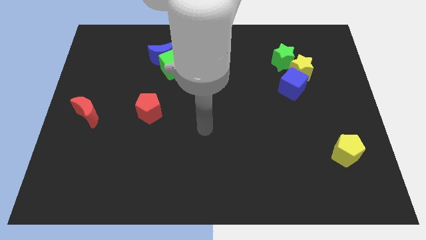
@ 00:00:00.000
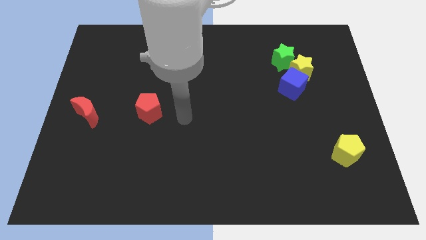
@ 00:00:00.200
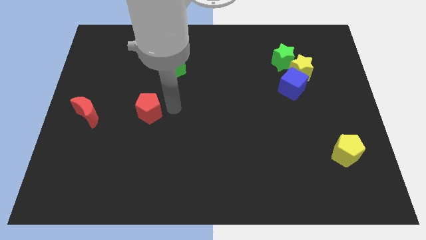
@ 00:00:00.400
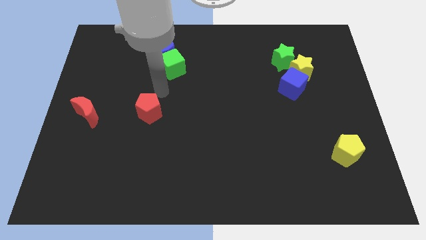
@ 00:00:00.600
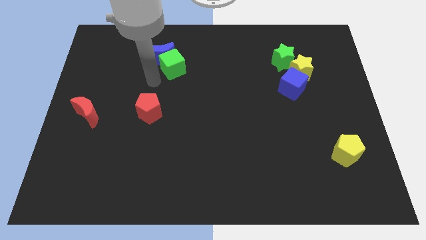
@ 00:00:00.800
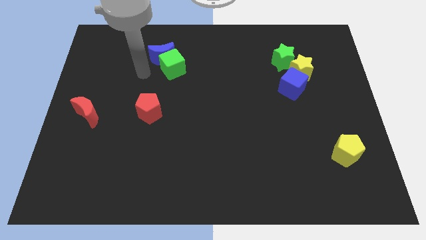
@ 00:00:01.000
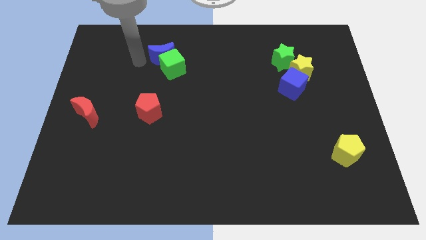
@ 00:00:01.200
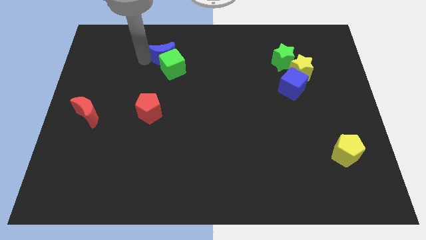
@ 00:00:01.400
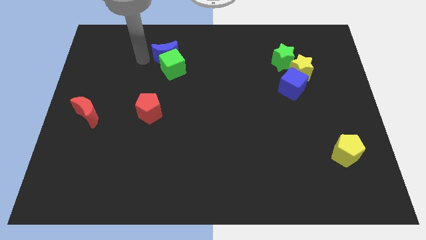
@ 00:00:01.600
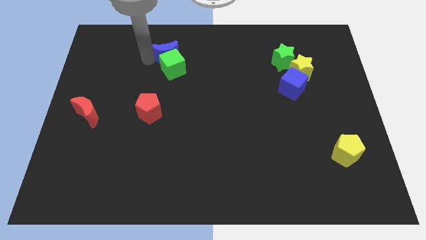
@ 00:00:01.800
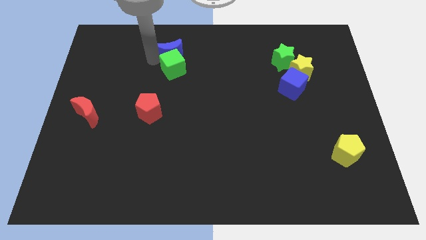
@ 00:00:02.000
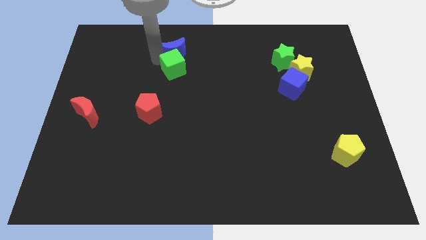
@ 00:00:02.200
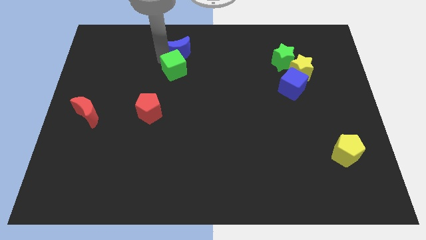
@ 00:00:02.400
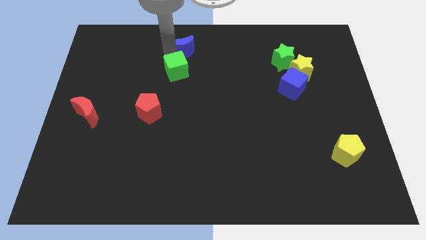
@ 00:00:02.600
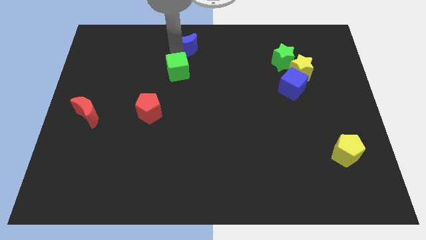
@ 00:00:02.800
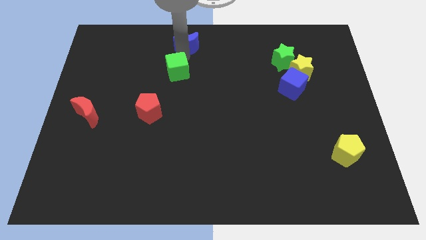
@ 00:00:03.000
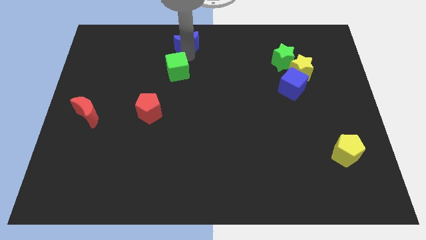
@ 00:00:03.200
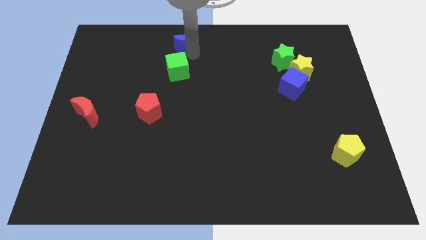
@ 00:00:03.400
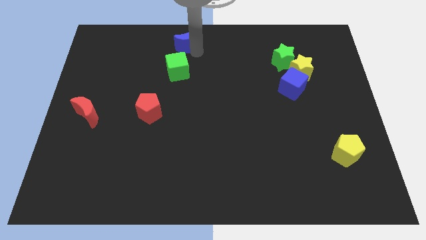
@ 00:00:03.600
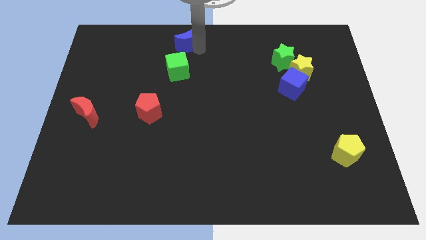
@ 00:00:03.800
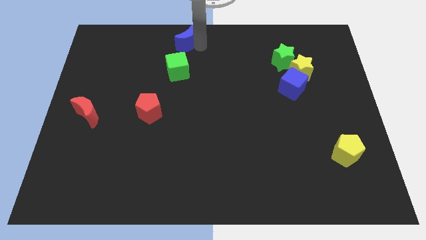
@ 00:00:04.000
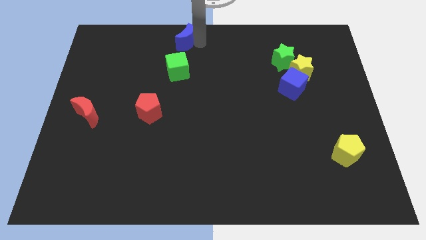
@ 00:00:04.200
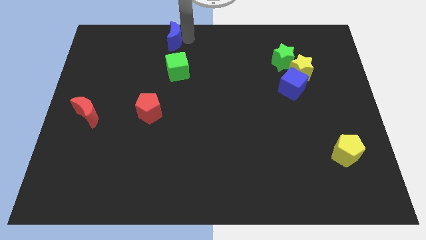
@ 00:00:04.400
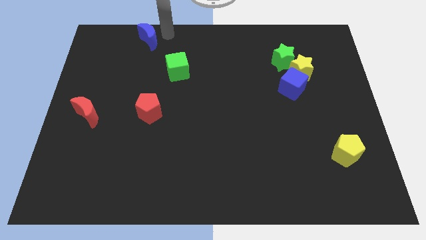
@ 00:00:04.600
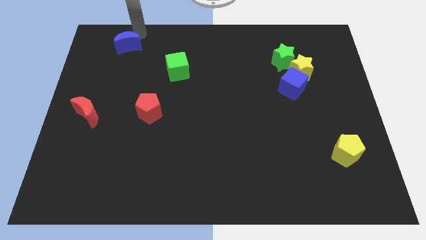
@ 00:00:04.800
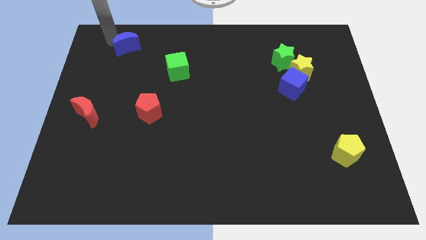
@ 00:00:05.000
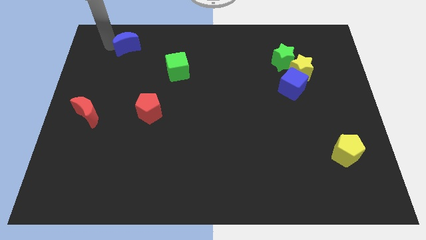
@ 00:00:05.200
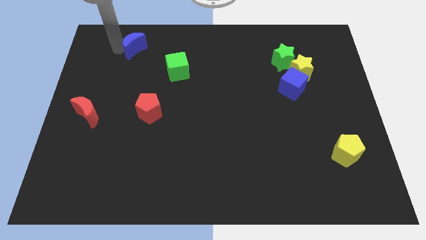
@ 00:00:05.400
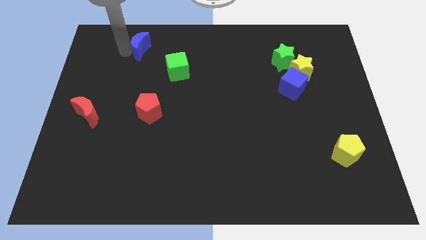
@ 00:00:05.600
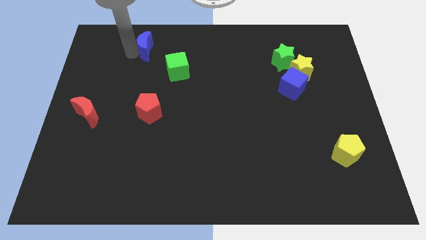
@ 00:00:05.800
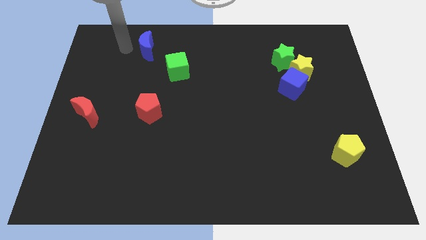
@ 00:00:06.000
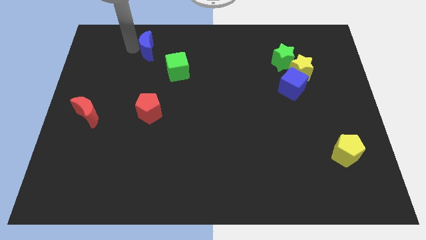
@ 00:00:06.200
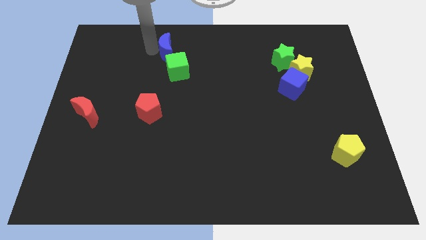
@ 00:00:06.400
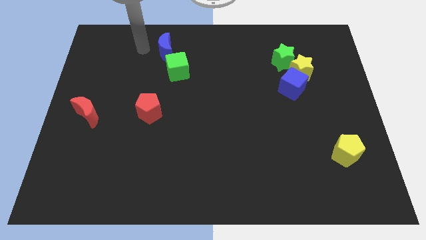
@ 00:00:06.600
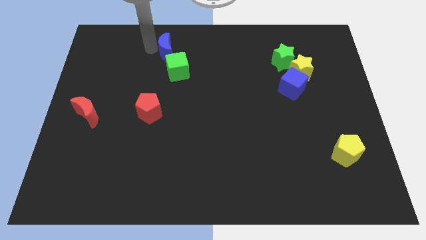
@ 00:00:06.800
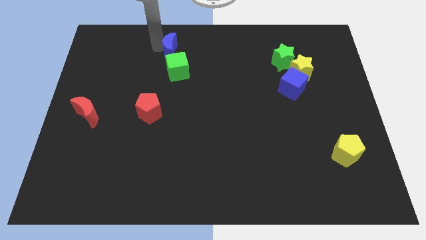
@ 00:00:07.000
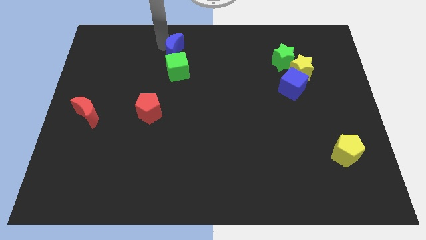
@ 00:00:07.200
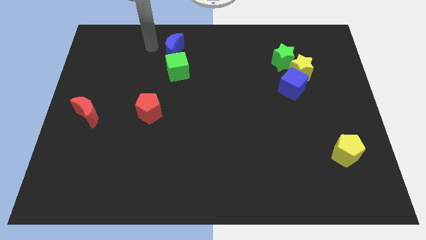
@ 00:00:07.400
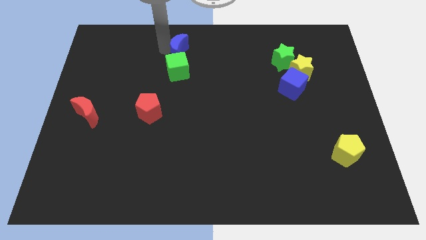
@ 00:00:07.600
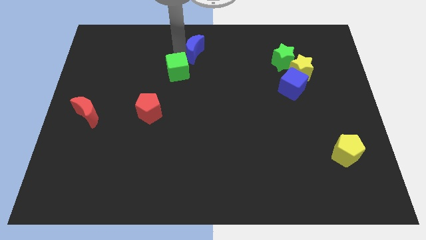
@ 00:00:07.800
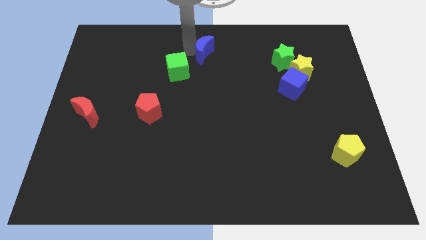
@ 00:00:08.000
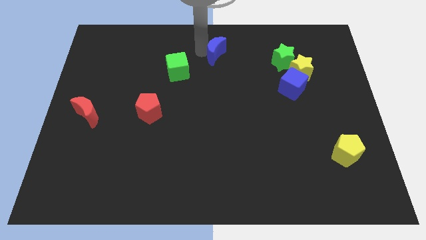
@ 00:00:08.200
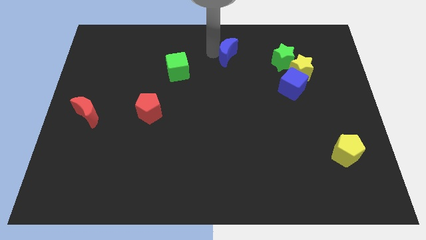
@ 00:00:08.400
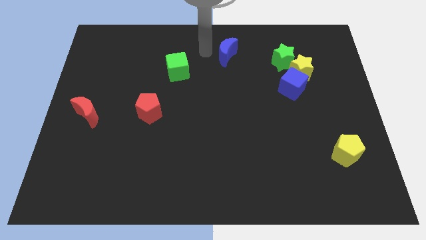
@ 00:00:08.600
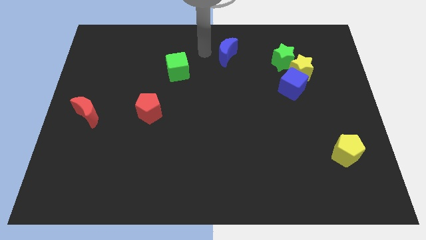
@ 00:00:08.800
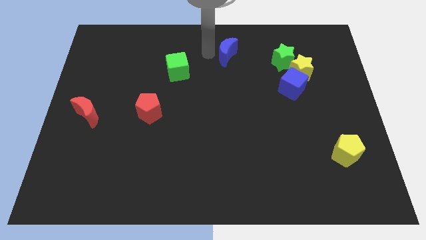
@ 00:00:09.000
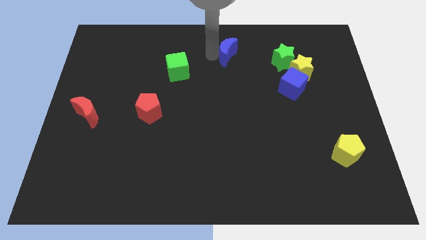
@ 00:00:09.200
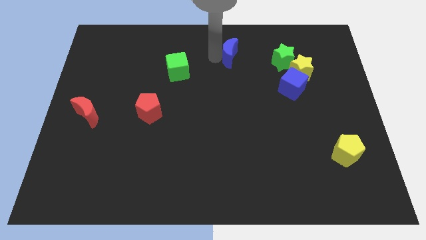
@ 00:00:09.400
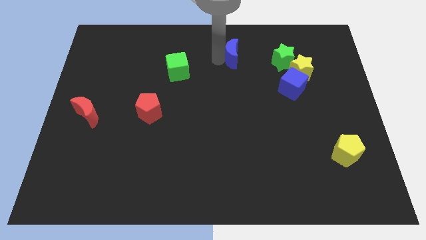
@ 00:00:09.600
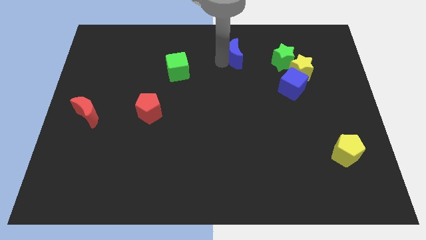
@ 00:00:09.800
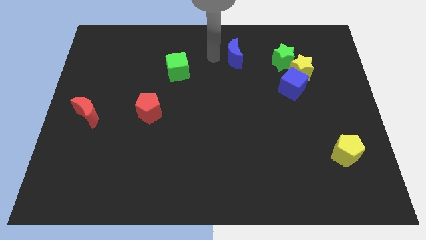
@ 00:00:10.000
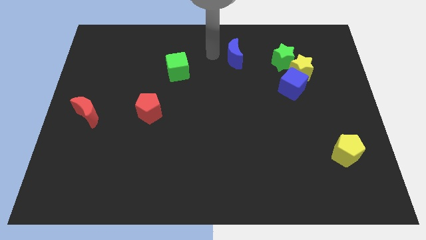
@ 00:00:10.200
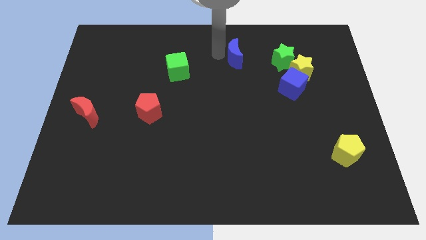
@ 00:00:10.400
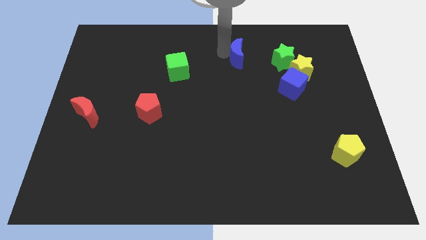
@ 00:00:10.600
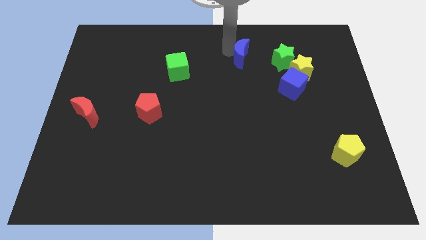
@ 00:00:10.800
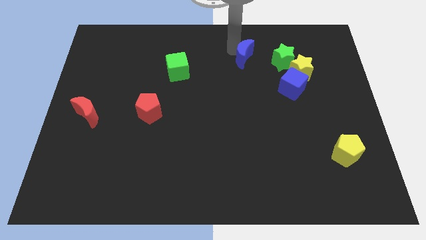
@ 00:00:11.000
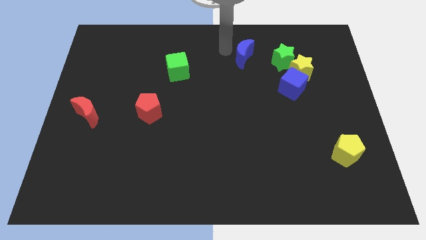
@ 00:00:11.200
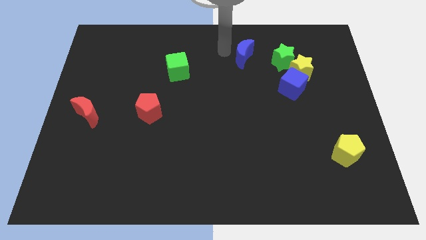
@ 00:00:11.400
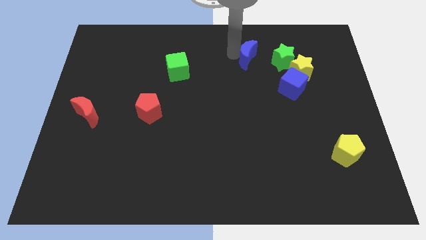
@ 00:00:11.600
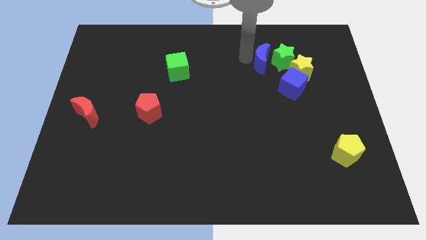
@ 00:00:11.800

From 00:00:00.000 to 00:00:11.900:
put the blue moon towards the green star

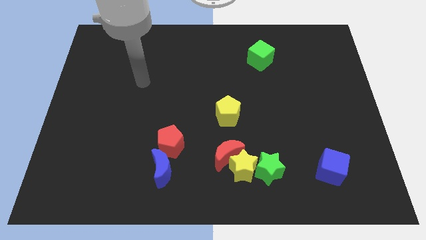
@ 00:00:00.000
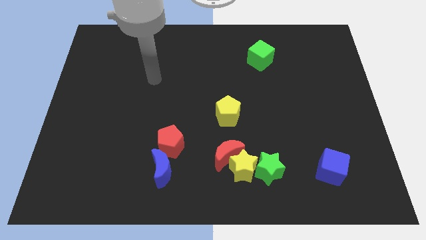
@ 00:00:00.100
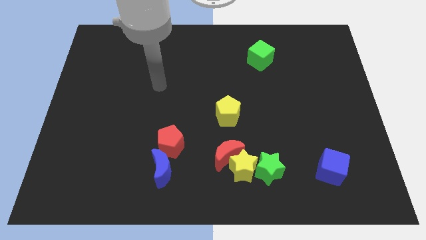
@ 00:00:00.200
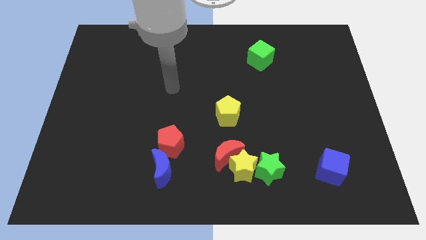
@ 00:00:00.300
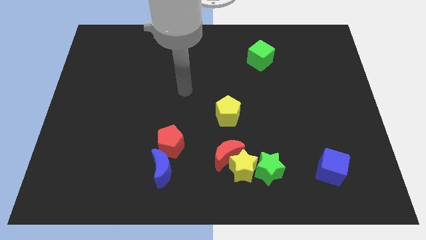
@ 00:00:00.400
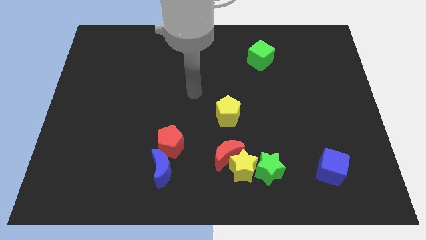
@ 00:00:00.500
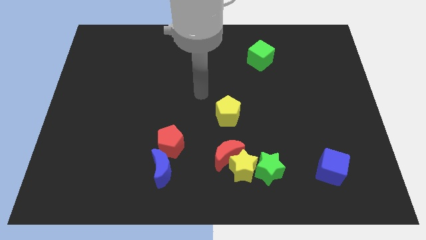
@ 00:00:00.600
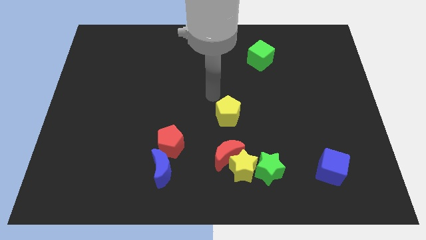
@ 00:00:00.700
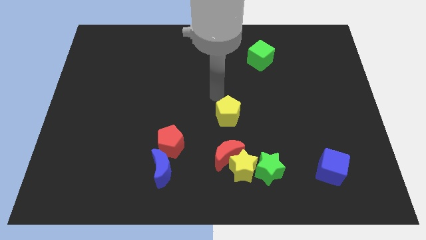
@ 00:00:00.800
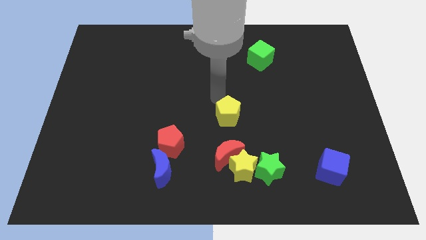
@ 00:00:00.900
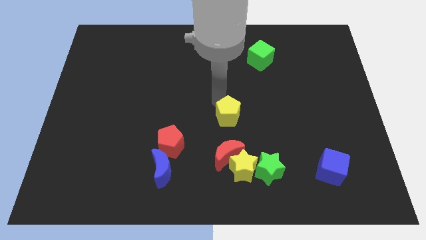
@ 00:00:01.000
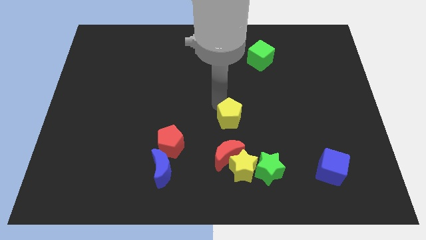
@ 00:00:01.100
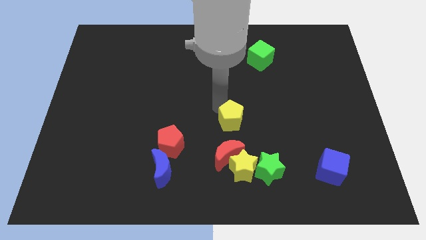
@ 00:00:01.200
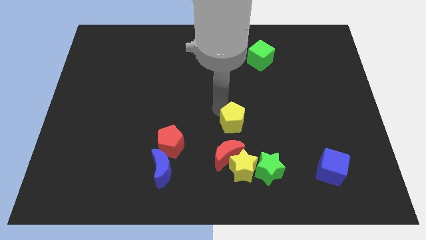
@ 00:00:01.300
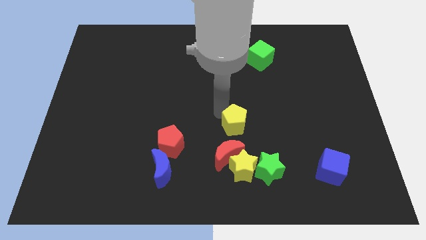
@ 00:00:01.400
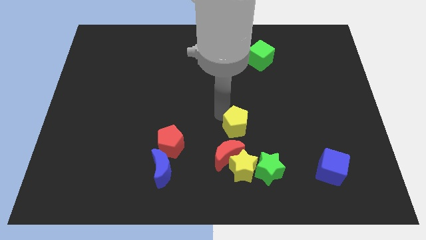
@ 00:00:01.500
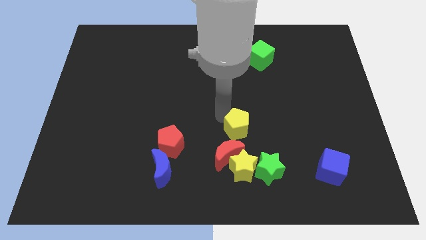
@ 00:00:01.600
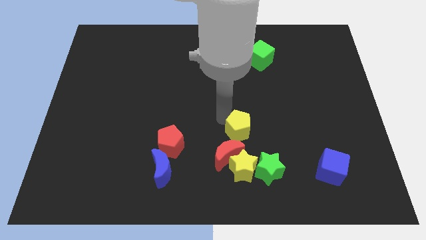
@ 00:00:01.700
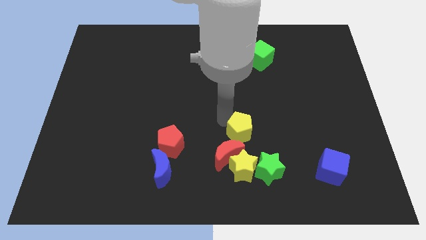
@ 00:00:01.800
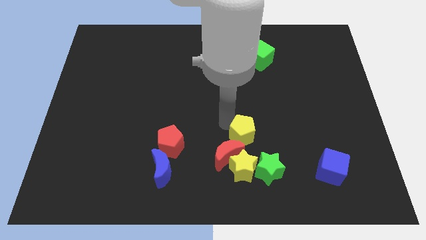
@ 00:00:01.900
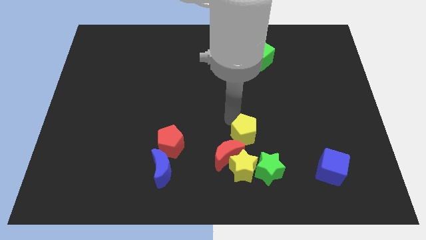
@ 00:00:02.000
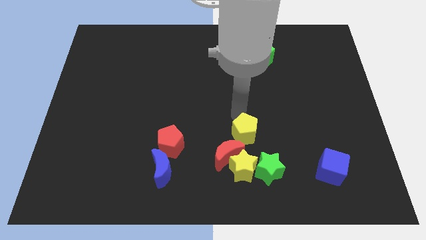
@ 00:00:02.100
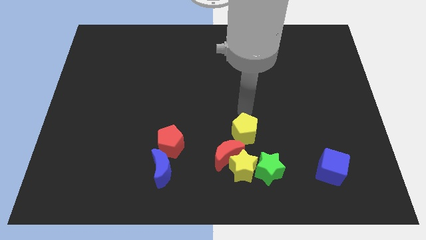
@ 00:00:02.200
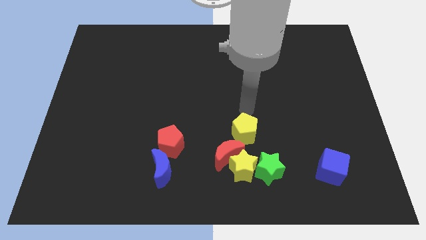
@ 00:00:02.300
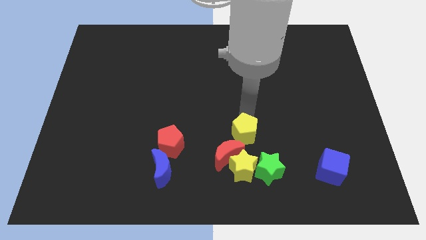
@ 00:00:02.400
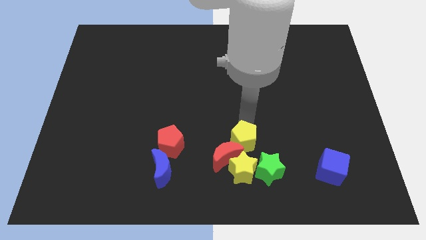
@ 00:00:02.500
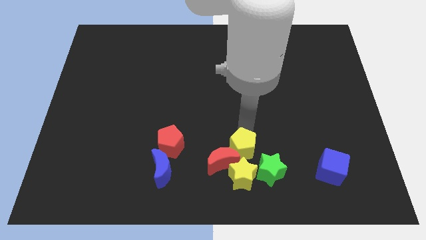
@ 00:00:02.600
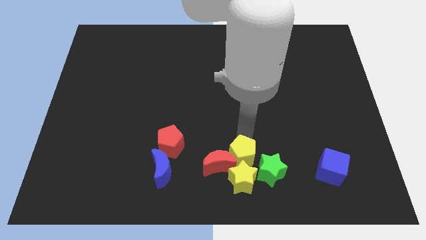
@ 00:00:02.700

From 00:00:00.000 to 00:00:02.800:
put the yellow pentagon to the yellow star
